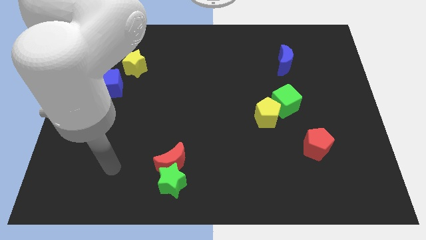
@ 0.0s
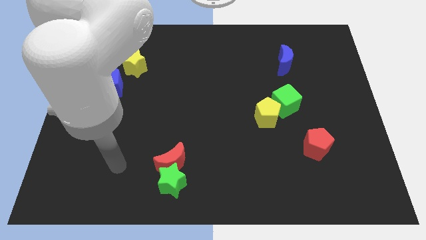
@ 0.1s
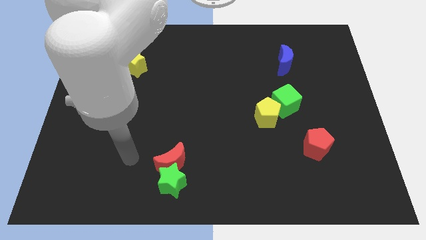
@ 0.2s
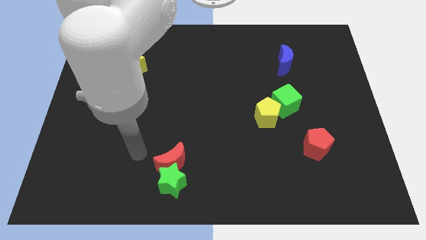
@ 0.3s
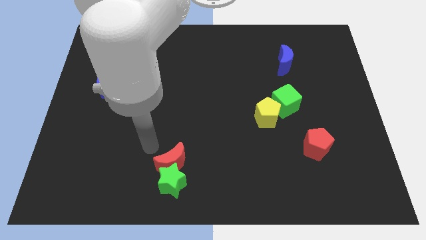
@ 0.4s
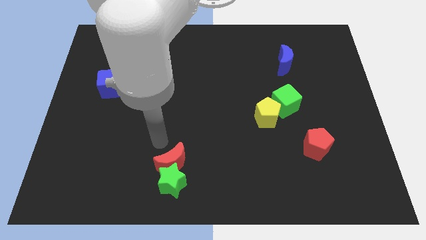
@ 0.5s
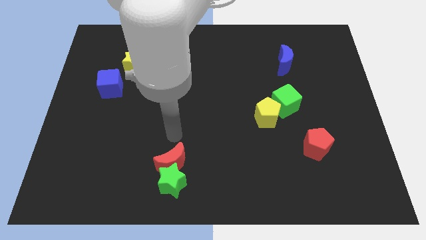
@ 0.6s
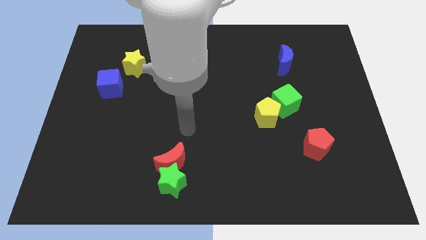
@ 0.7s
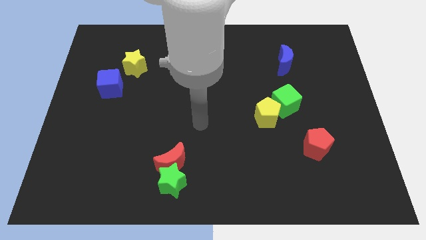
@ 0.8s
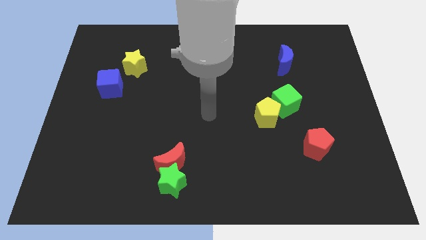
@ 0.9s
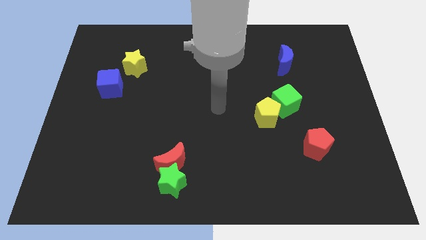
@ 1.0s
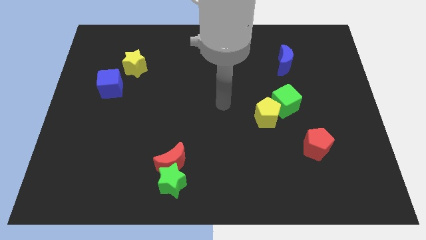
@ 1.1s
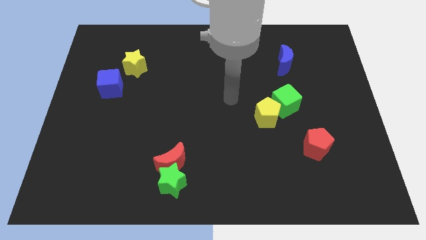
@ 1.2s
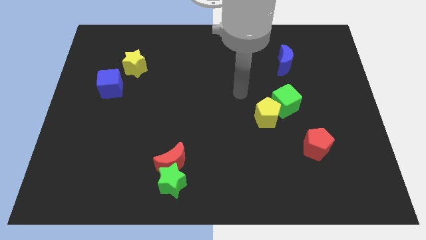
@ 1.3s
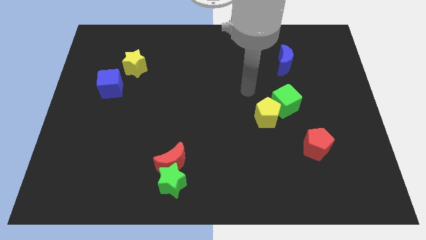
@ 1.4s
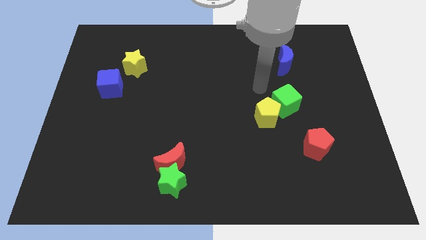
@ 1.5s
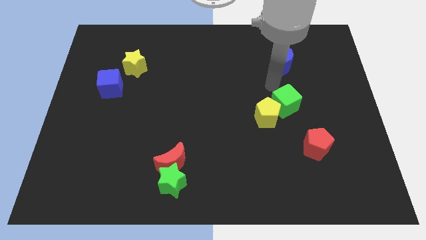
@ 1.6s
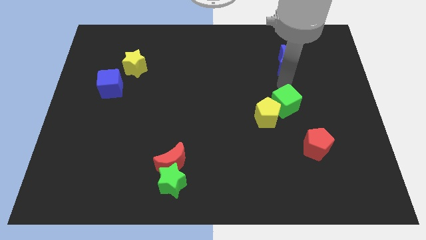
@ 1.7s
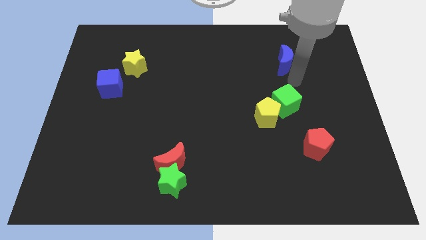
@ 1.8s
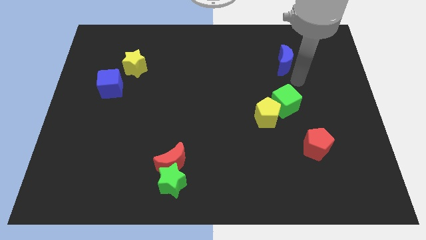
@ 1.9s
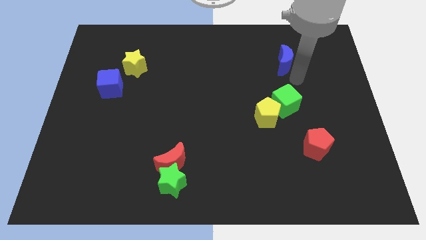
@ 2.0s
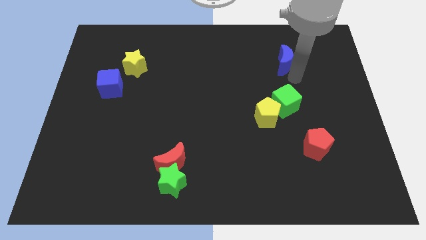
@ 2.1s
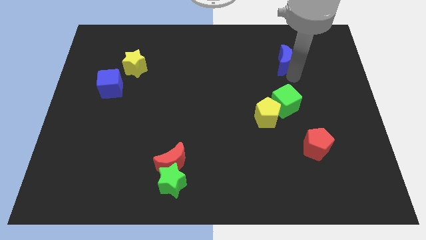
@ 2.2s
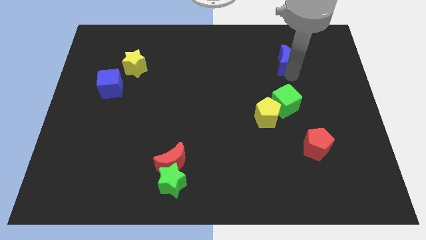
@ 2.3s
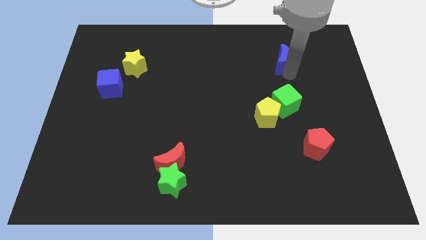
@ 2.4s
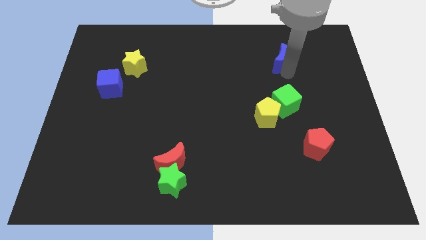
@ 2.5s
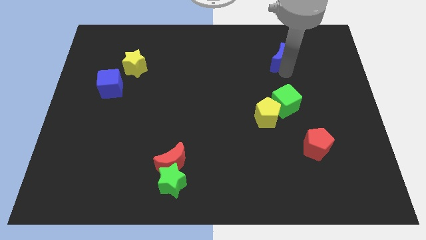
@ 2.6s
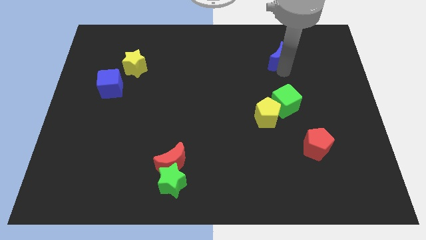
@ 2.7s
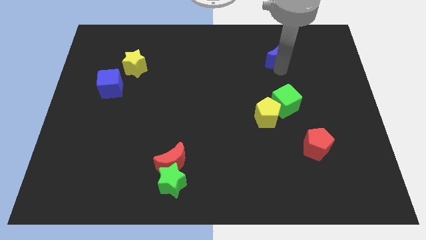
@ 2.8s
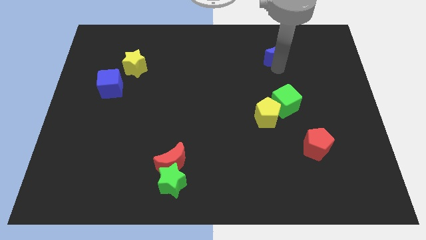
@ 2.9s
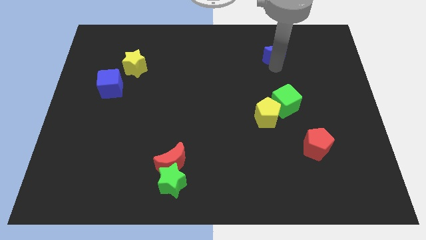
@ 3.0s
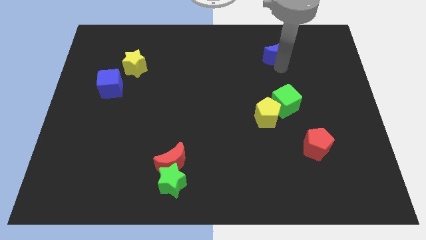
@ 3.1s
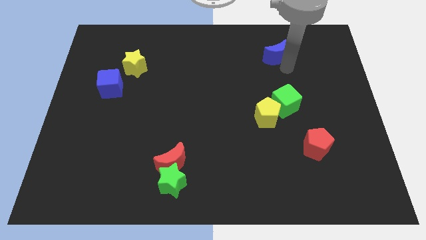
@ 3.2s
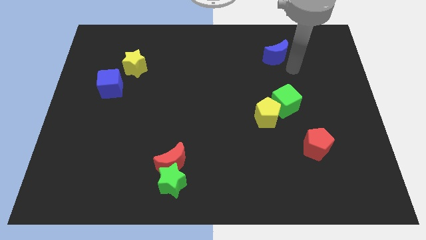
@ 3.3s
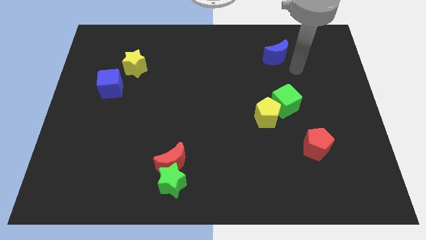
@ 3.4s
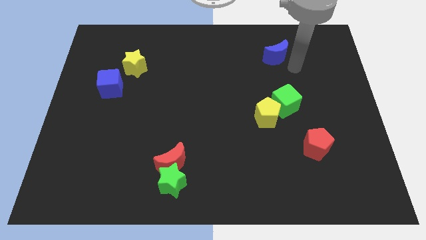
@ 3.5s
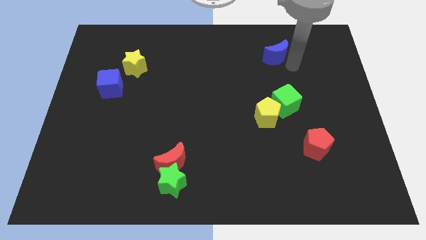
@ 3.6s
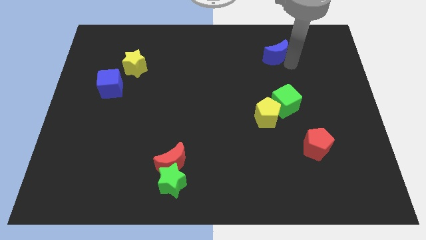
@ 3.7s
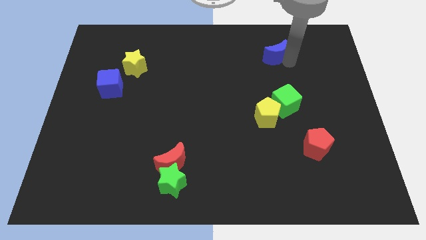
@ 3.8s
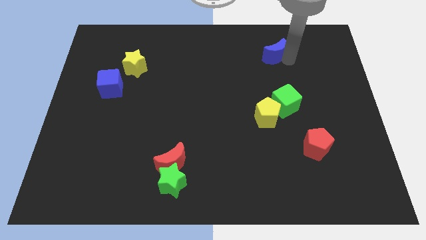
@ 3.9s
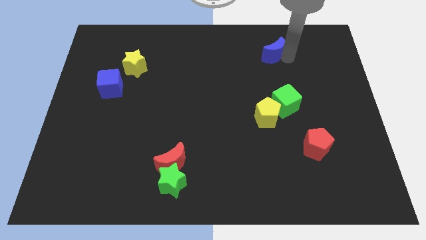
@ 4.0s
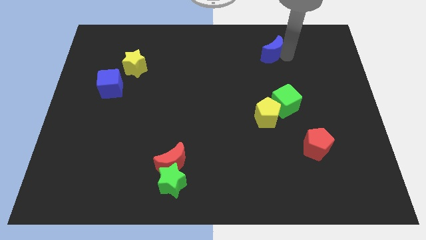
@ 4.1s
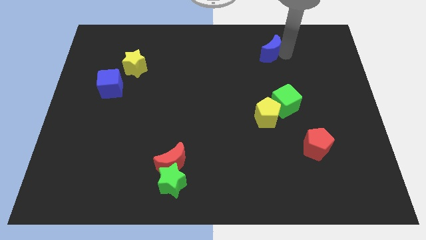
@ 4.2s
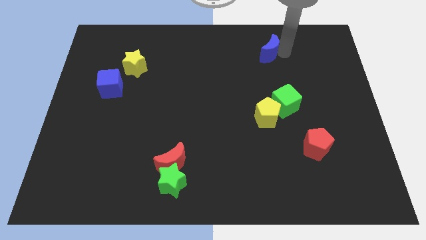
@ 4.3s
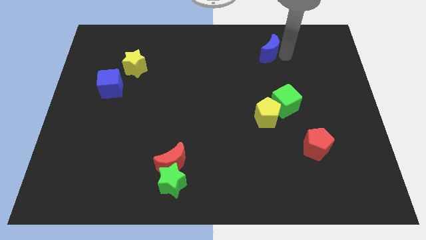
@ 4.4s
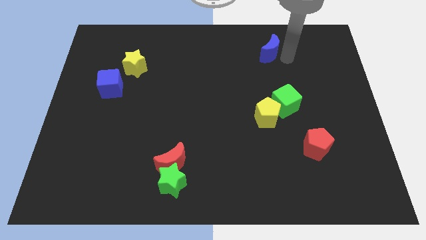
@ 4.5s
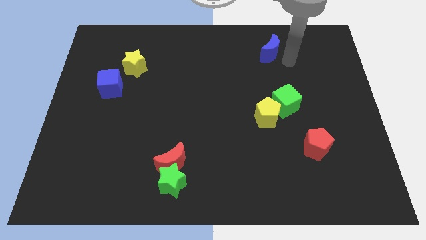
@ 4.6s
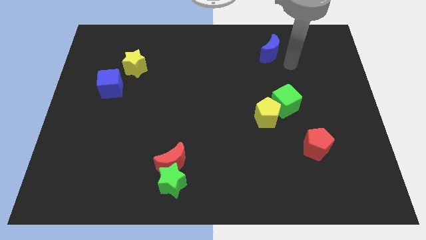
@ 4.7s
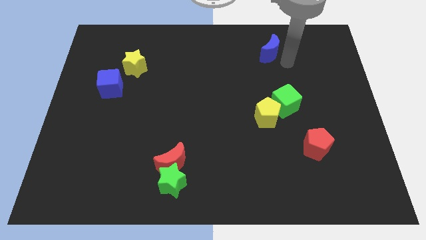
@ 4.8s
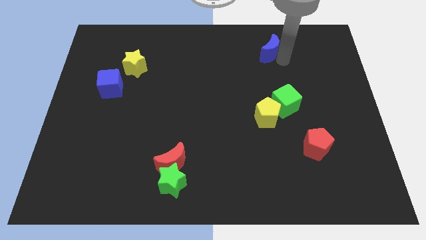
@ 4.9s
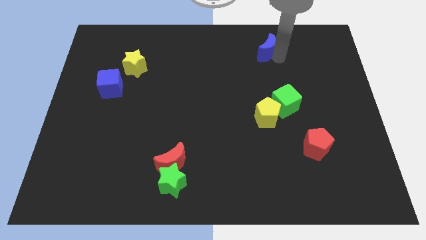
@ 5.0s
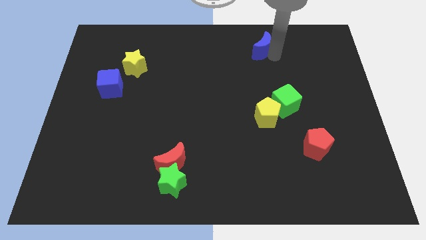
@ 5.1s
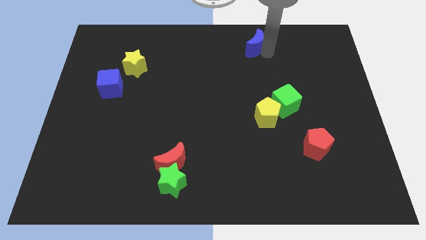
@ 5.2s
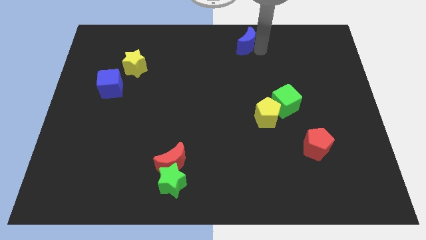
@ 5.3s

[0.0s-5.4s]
push the blue moon to the top
